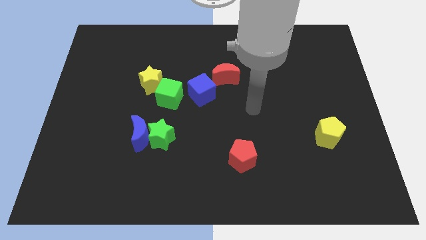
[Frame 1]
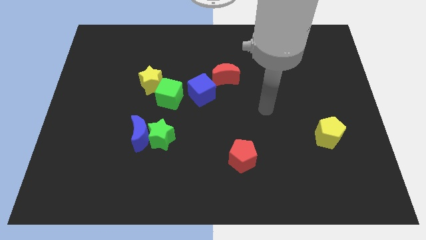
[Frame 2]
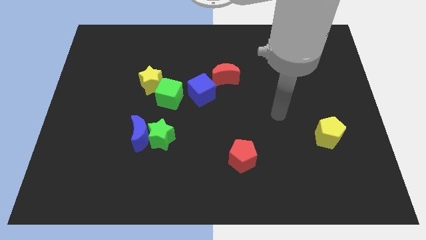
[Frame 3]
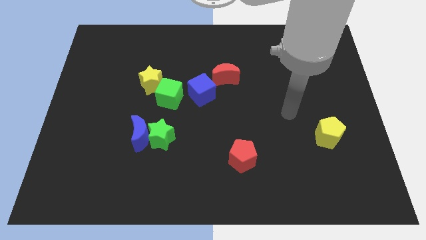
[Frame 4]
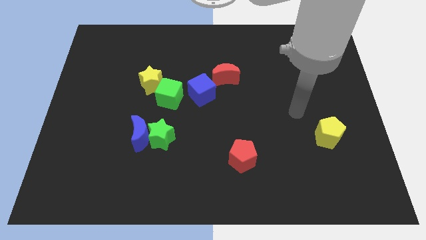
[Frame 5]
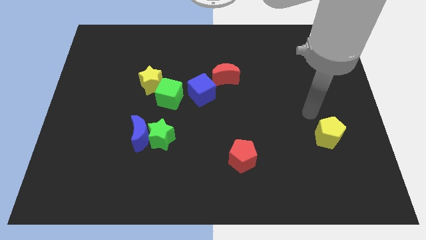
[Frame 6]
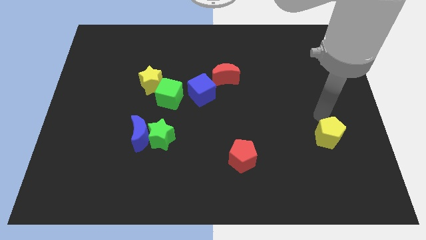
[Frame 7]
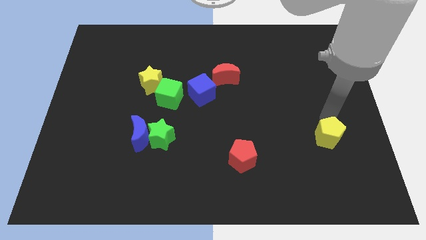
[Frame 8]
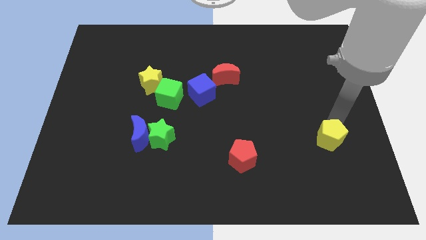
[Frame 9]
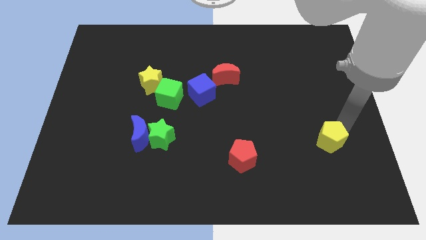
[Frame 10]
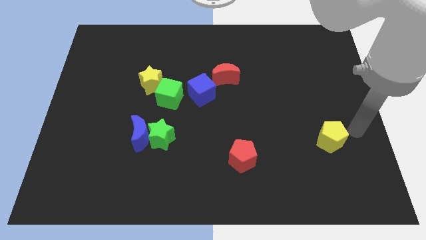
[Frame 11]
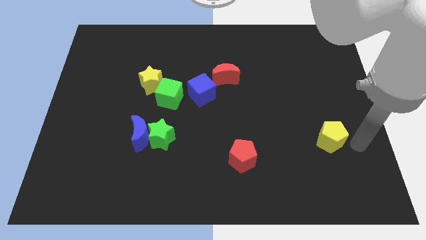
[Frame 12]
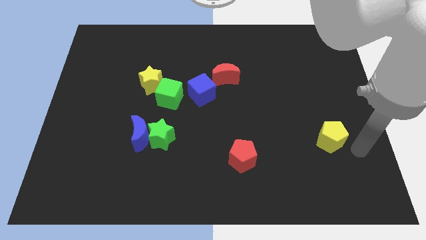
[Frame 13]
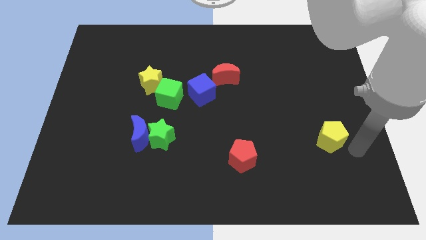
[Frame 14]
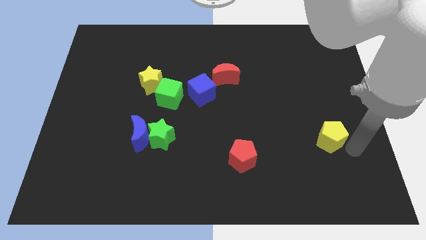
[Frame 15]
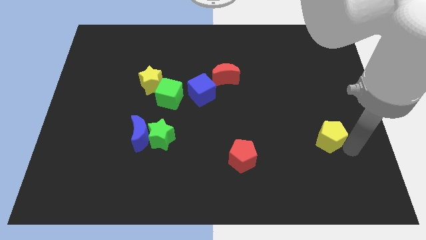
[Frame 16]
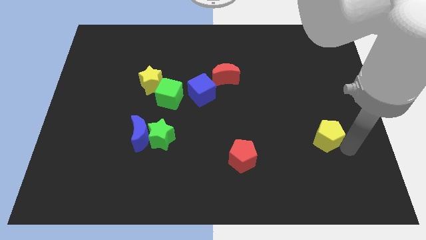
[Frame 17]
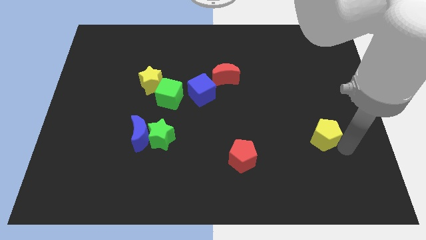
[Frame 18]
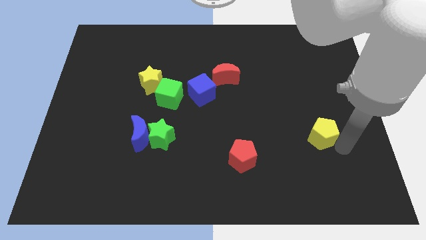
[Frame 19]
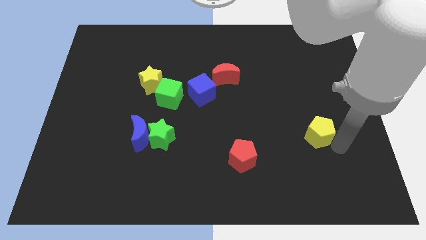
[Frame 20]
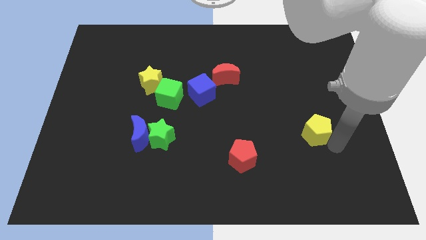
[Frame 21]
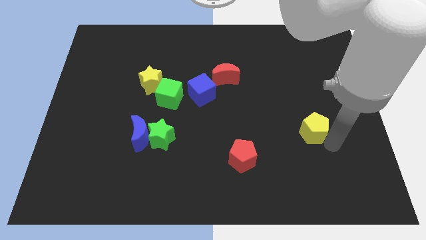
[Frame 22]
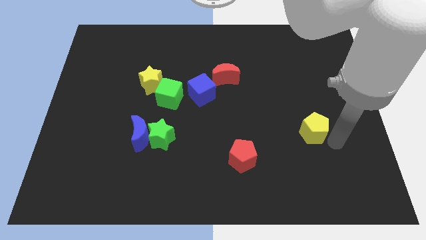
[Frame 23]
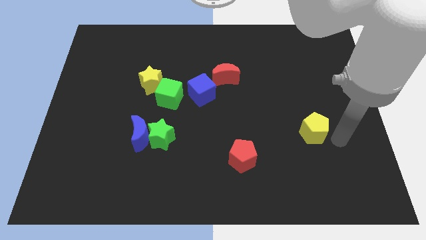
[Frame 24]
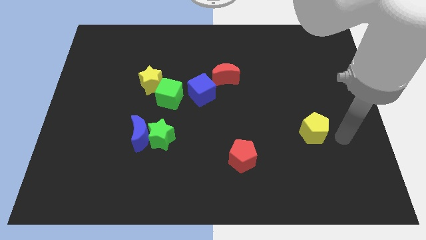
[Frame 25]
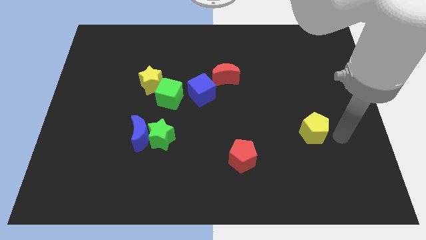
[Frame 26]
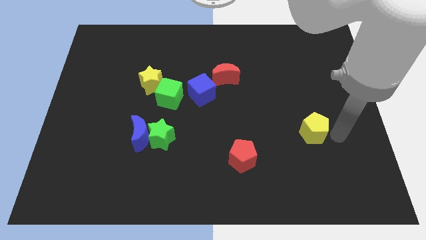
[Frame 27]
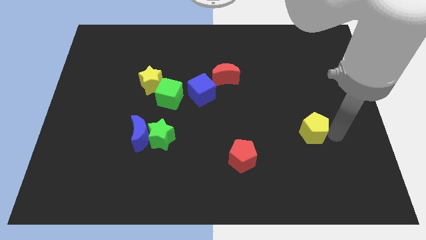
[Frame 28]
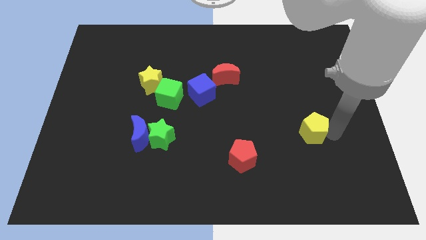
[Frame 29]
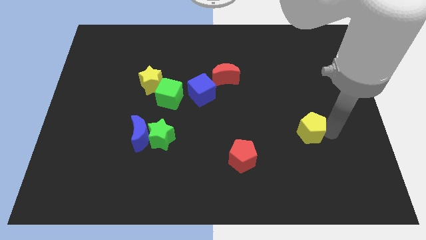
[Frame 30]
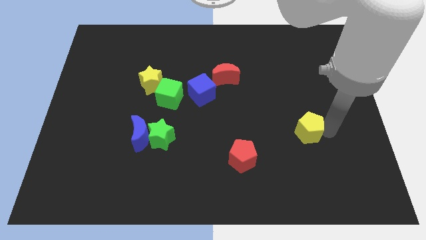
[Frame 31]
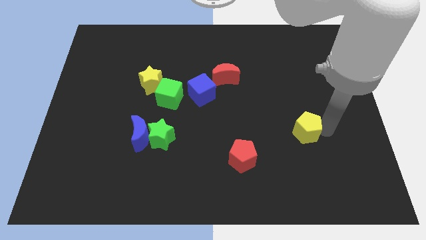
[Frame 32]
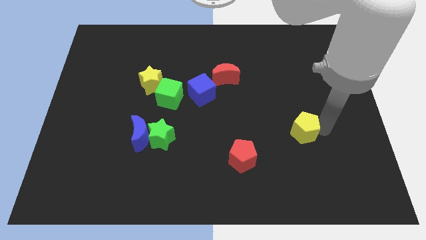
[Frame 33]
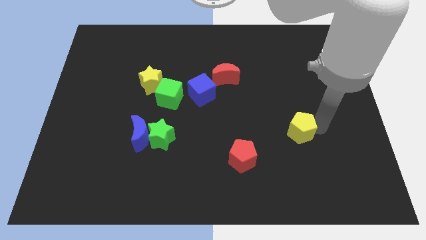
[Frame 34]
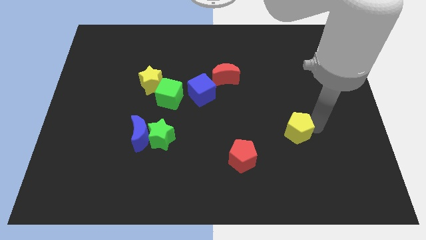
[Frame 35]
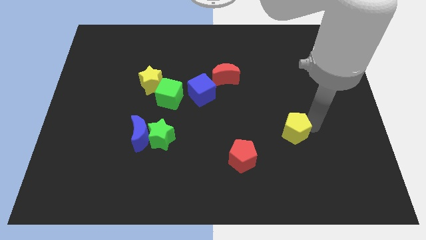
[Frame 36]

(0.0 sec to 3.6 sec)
push the yellow pentagon to the left somewhat

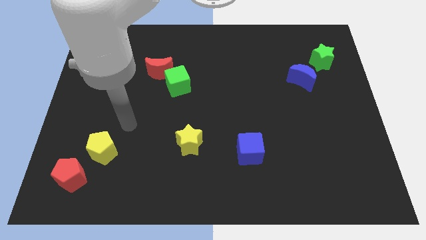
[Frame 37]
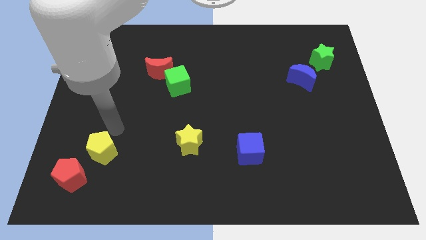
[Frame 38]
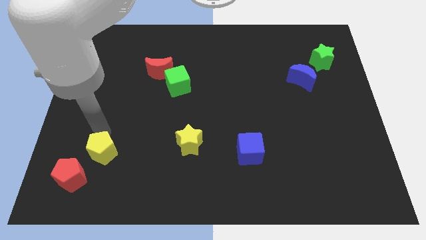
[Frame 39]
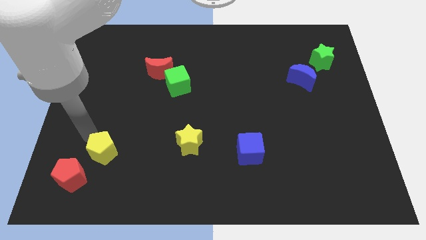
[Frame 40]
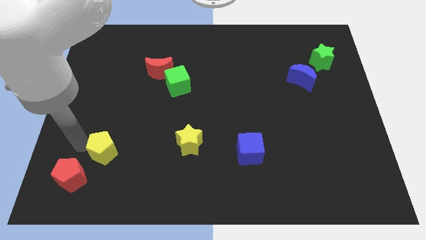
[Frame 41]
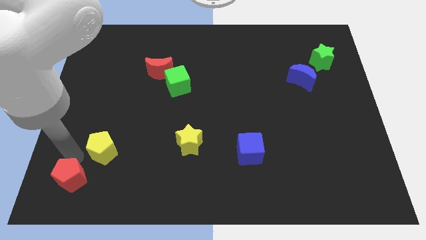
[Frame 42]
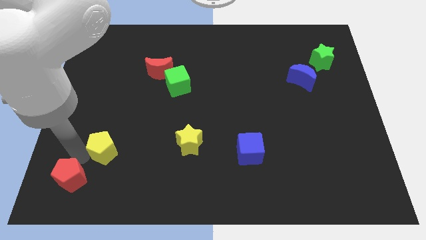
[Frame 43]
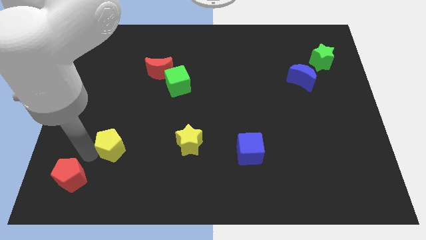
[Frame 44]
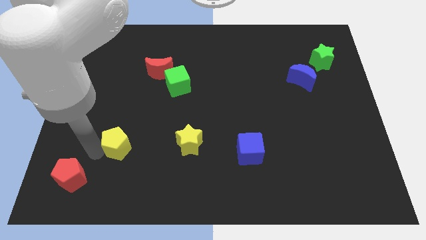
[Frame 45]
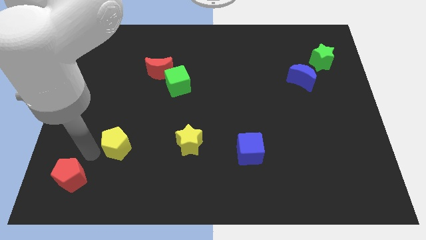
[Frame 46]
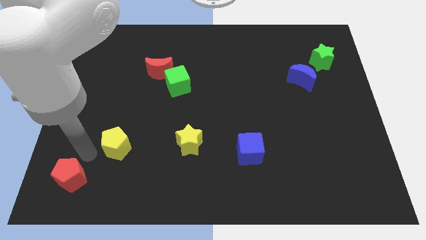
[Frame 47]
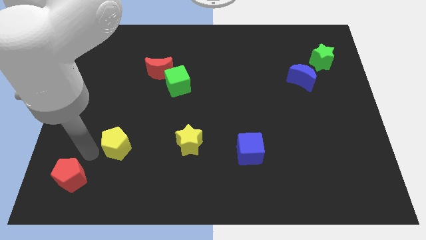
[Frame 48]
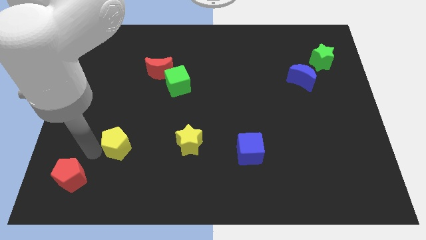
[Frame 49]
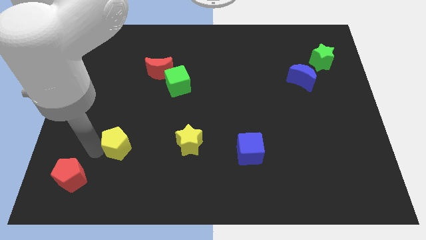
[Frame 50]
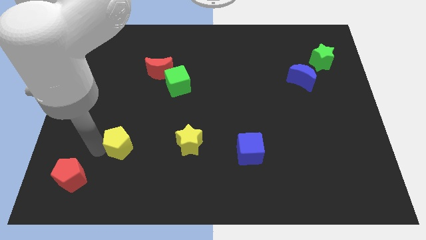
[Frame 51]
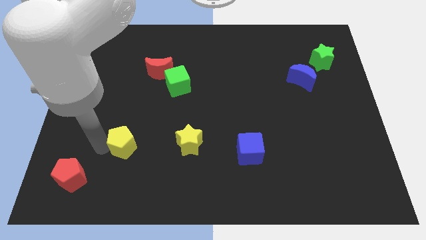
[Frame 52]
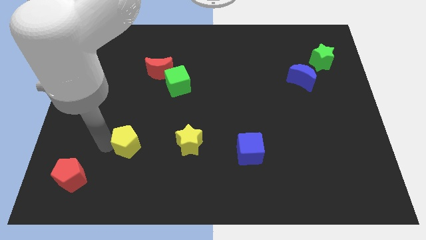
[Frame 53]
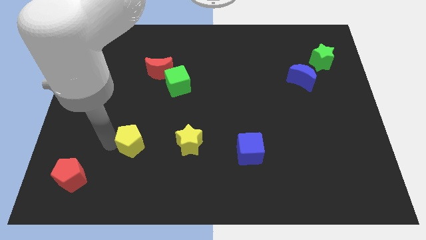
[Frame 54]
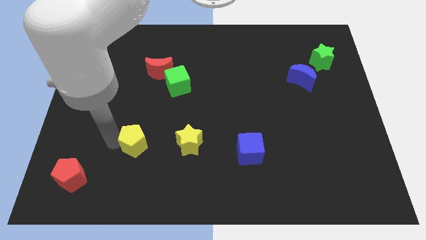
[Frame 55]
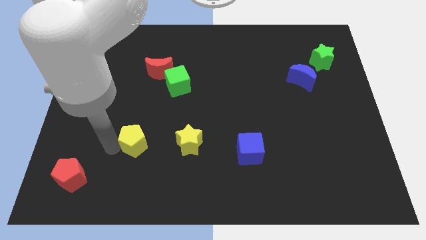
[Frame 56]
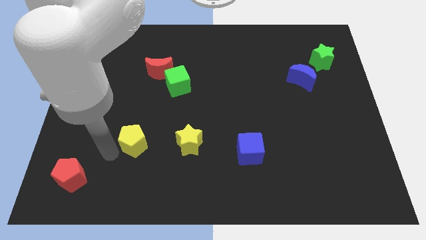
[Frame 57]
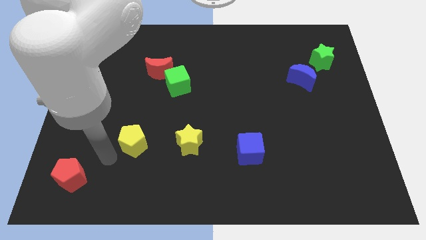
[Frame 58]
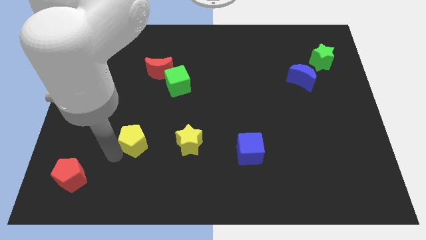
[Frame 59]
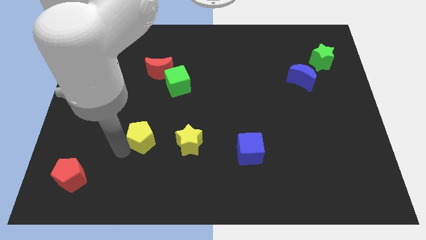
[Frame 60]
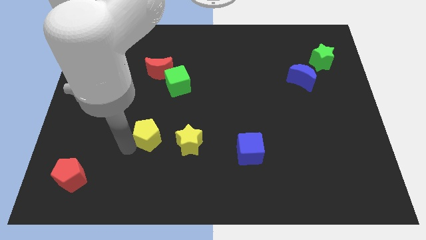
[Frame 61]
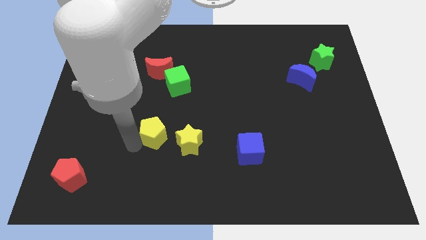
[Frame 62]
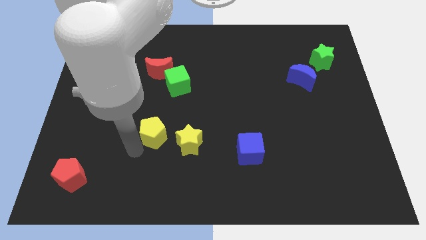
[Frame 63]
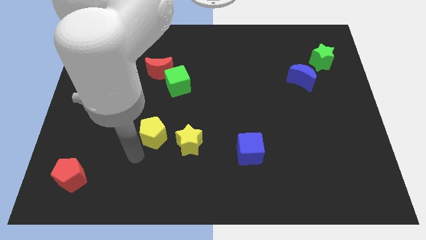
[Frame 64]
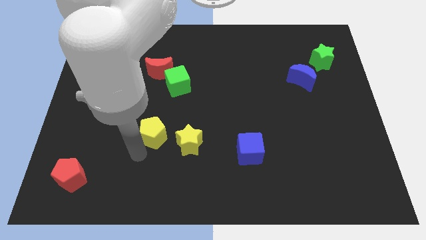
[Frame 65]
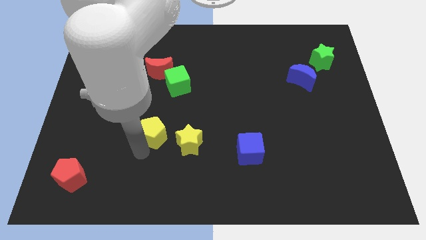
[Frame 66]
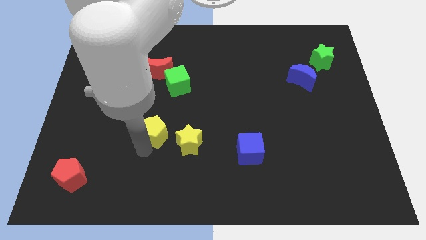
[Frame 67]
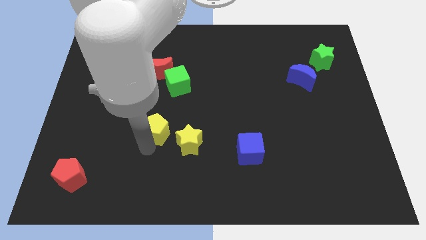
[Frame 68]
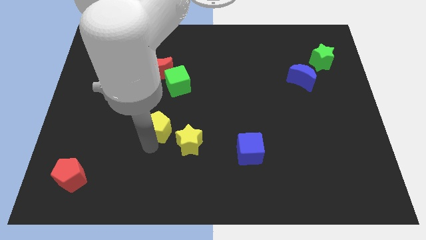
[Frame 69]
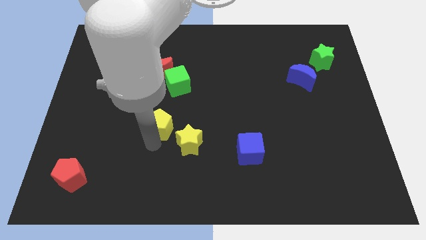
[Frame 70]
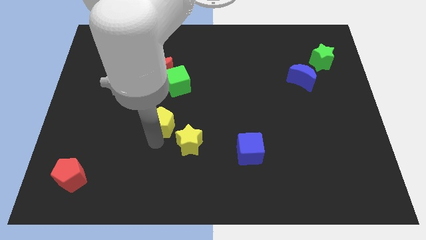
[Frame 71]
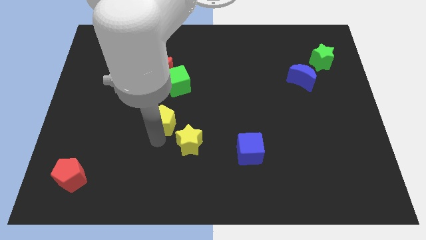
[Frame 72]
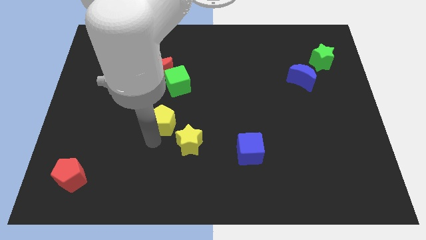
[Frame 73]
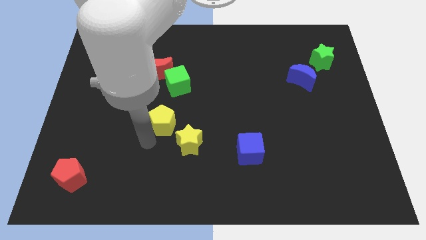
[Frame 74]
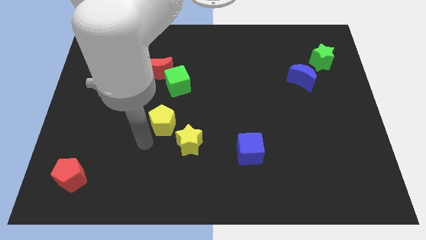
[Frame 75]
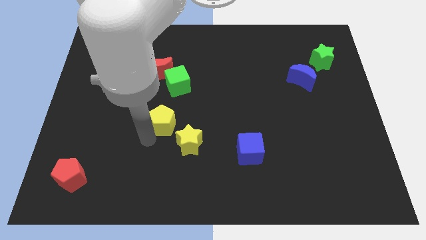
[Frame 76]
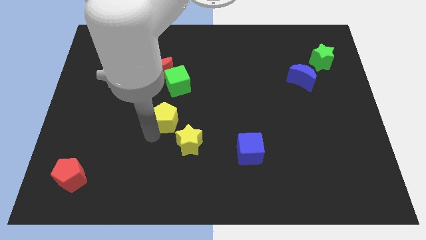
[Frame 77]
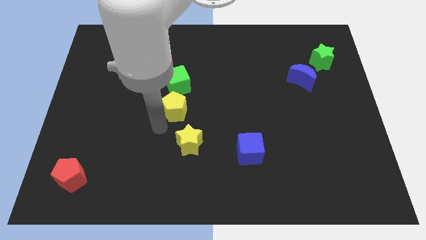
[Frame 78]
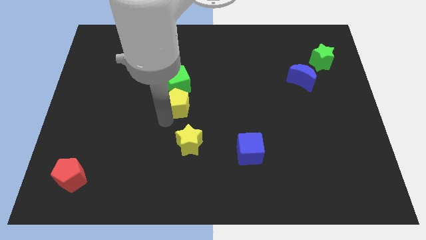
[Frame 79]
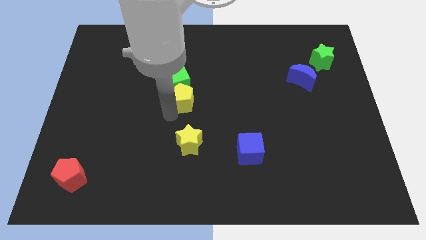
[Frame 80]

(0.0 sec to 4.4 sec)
slide the yellow pentagon up and then right
